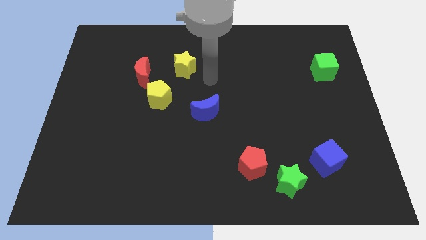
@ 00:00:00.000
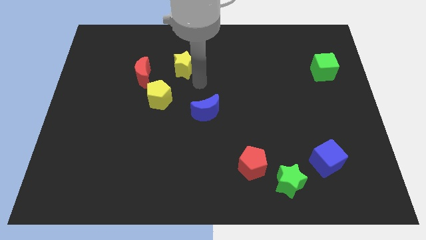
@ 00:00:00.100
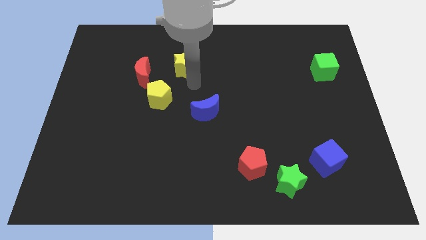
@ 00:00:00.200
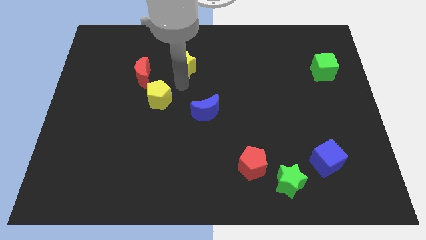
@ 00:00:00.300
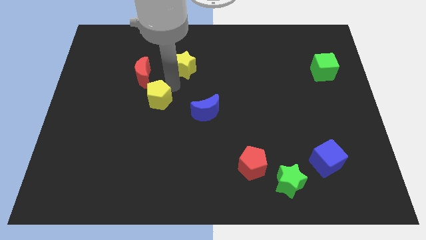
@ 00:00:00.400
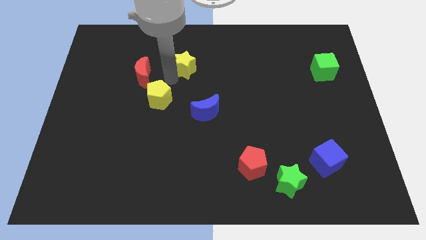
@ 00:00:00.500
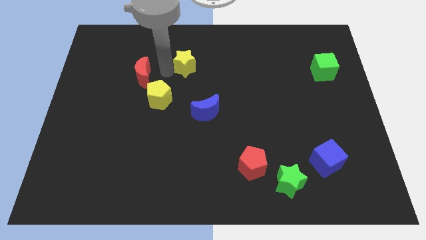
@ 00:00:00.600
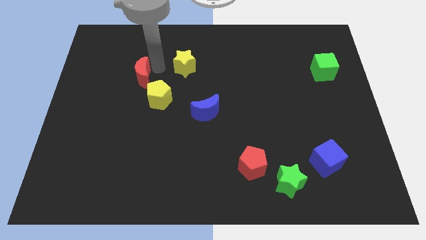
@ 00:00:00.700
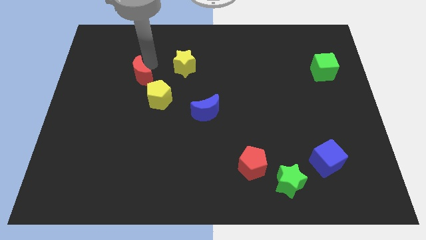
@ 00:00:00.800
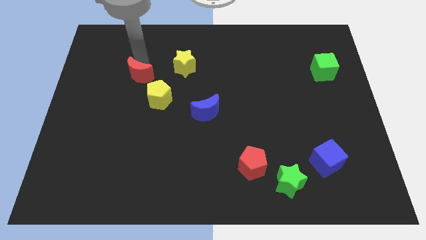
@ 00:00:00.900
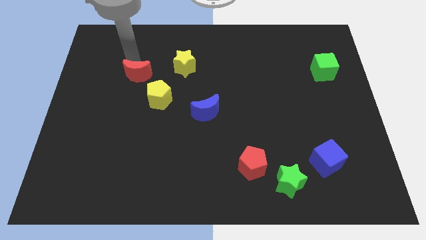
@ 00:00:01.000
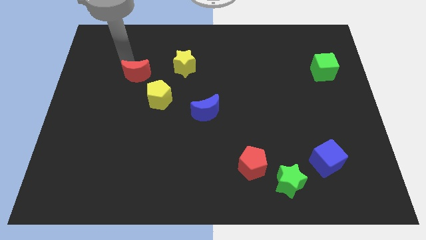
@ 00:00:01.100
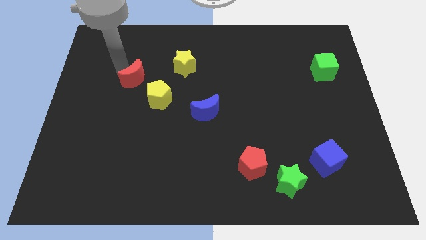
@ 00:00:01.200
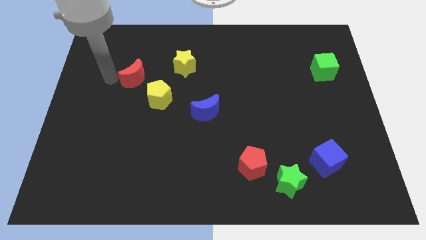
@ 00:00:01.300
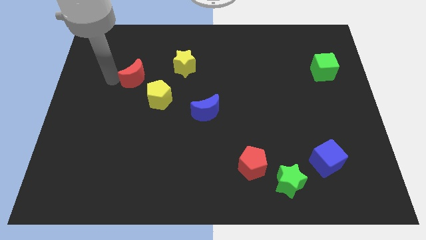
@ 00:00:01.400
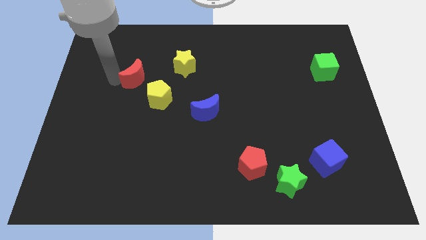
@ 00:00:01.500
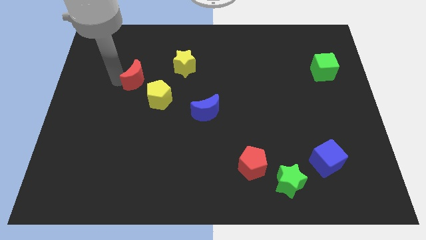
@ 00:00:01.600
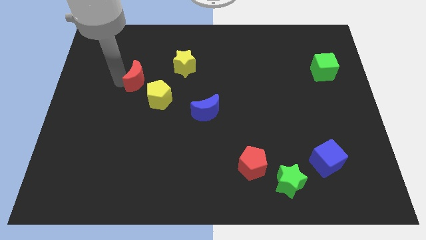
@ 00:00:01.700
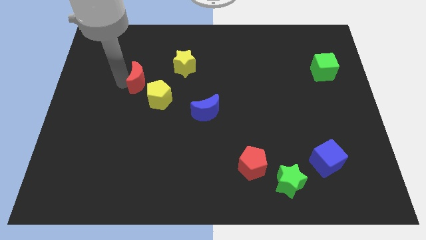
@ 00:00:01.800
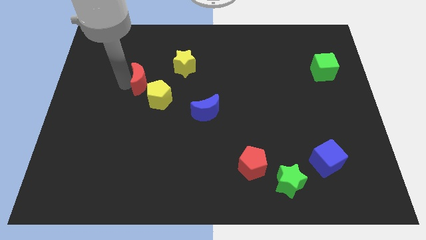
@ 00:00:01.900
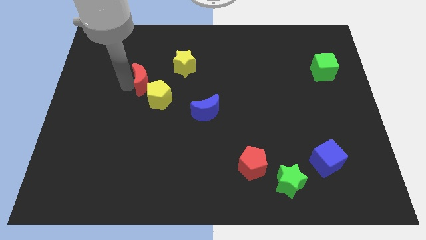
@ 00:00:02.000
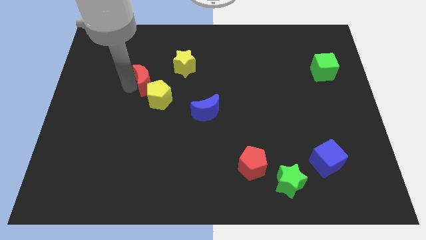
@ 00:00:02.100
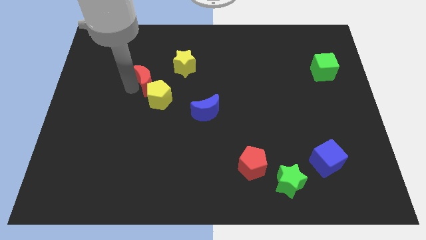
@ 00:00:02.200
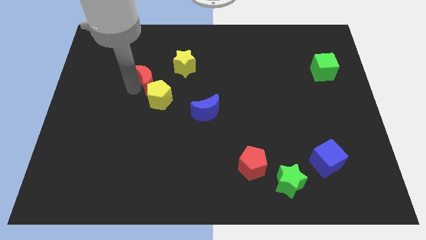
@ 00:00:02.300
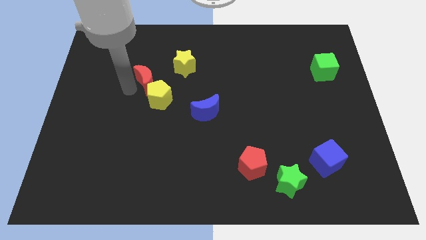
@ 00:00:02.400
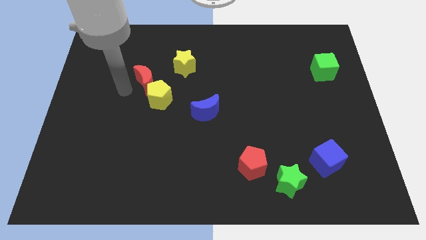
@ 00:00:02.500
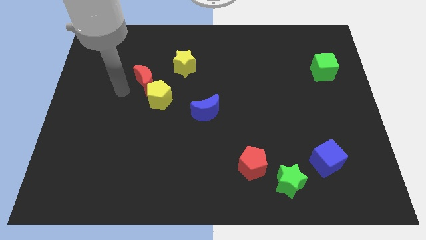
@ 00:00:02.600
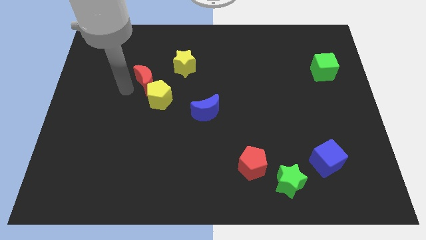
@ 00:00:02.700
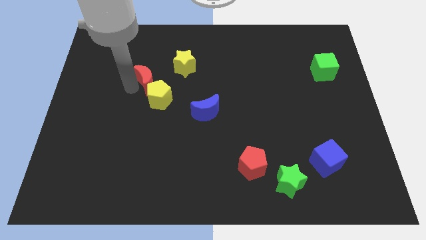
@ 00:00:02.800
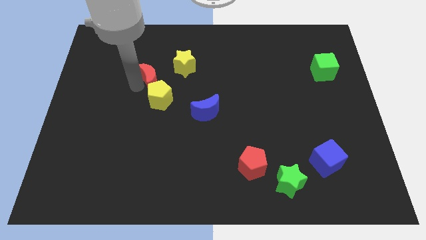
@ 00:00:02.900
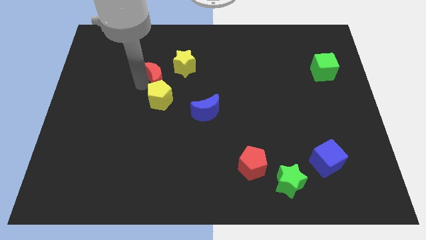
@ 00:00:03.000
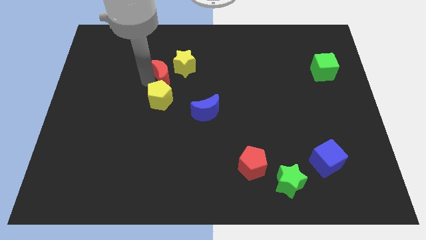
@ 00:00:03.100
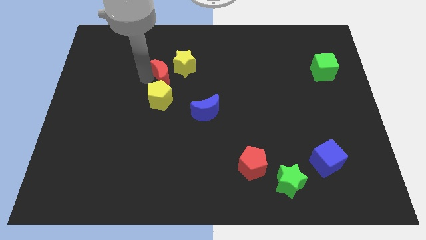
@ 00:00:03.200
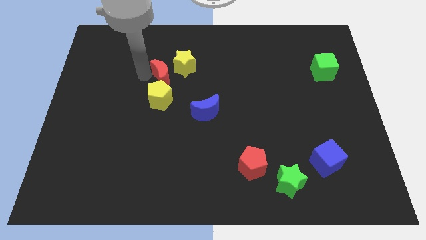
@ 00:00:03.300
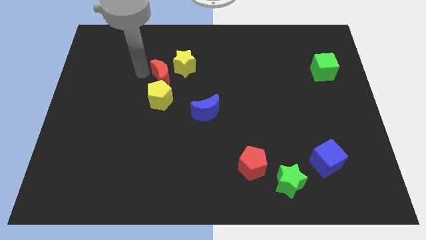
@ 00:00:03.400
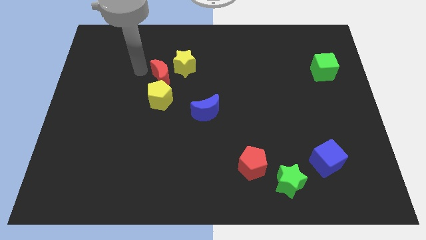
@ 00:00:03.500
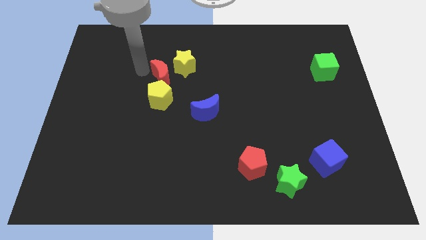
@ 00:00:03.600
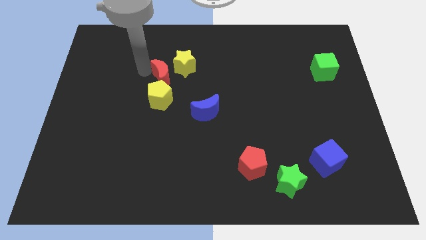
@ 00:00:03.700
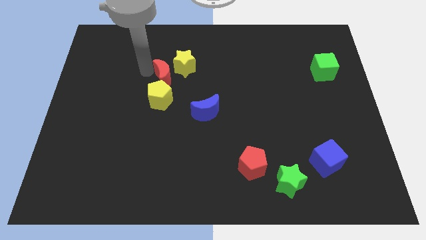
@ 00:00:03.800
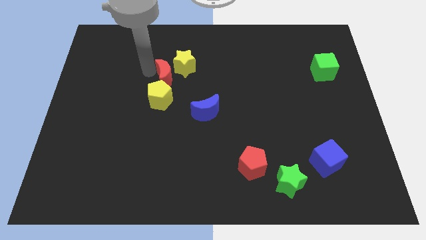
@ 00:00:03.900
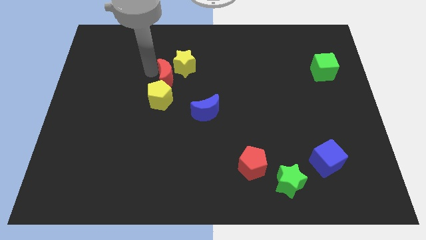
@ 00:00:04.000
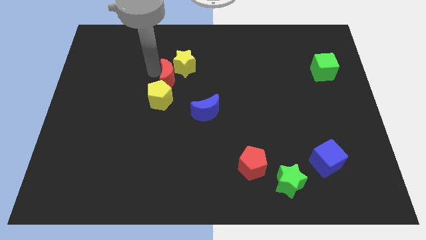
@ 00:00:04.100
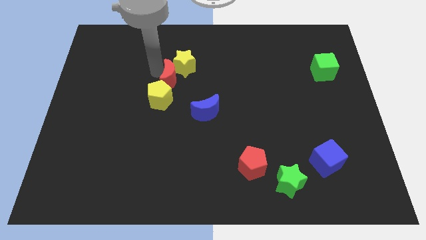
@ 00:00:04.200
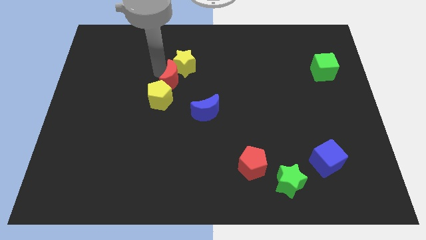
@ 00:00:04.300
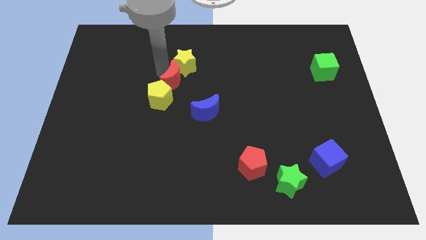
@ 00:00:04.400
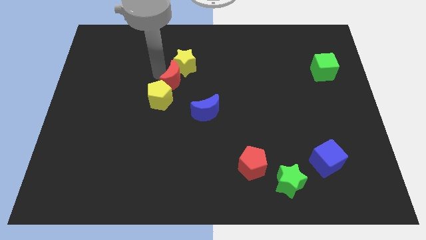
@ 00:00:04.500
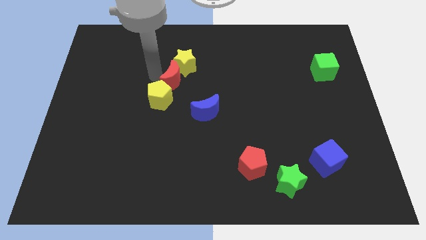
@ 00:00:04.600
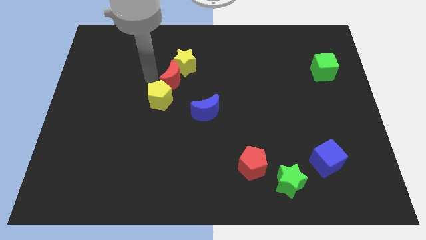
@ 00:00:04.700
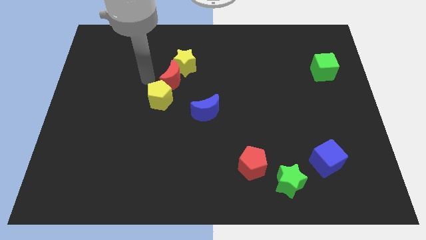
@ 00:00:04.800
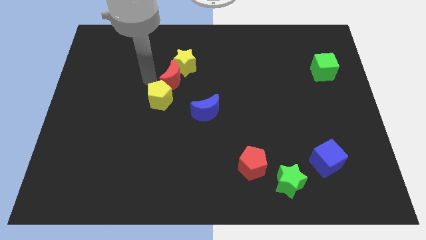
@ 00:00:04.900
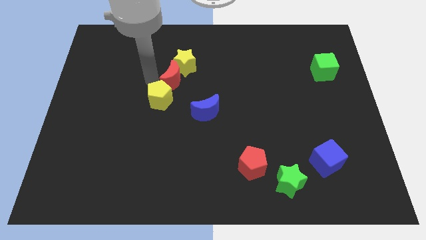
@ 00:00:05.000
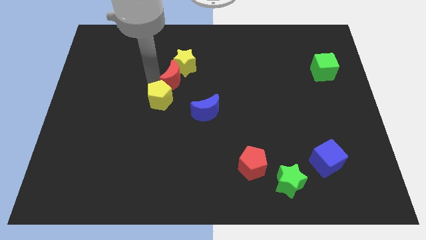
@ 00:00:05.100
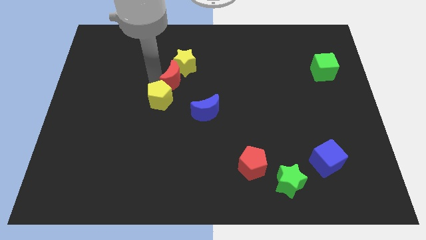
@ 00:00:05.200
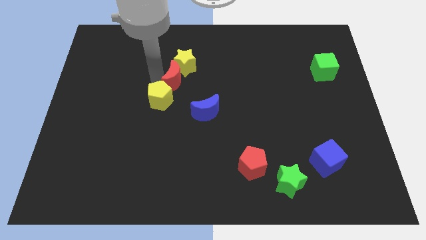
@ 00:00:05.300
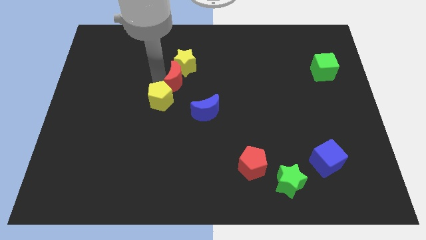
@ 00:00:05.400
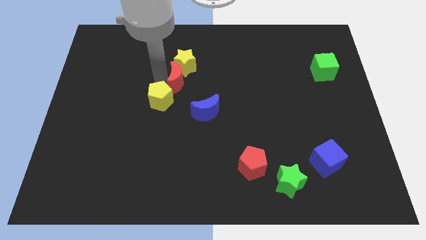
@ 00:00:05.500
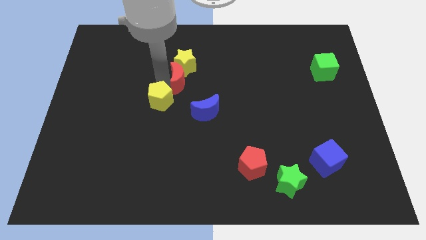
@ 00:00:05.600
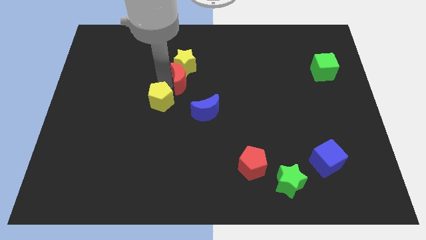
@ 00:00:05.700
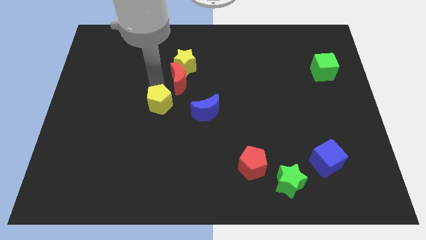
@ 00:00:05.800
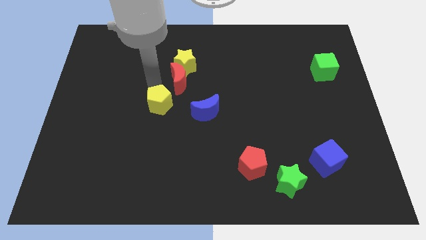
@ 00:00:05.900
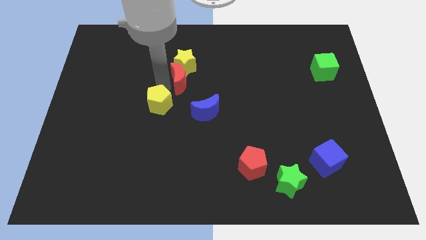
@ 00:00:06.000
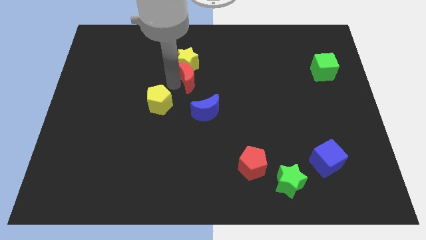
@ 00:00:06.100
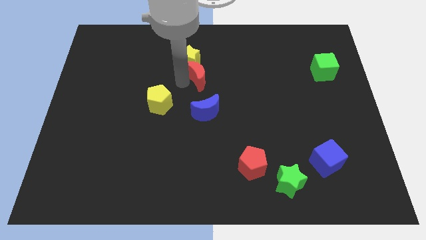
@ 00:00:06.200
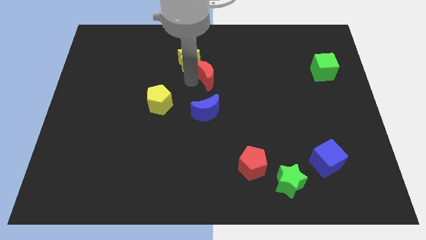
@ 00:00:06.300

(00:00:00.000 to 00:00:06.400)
put the red moon to the right of the yellow star

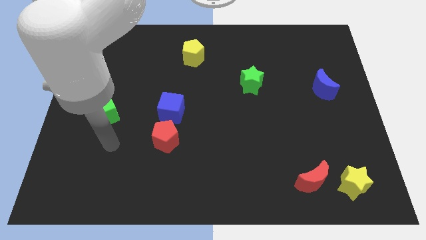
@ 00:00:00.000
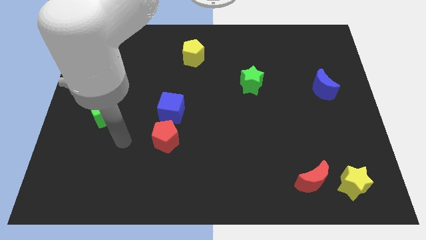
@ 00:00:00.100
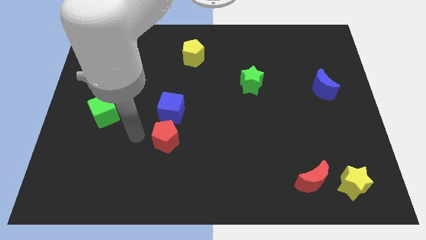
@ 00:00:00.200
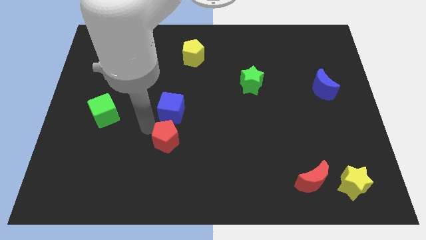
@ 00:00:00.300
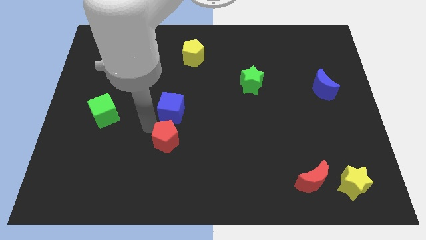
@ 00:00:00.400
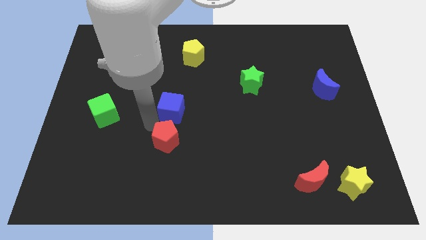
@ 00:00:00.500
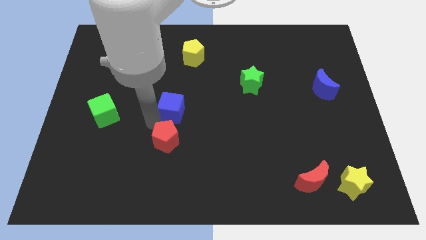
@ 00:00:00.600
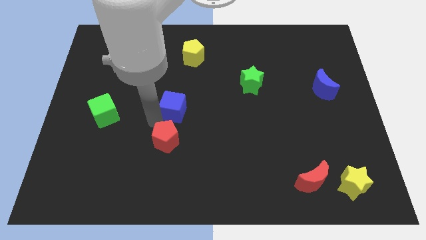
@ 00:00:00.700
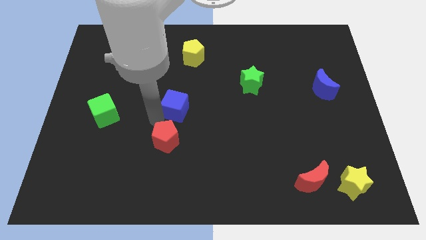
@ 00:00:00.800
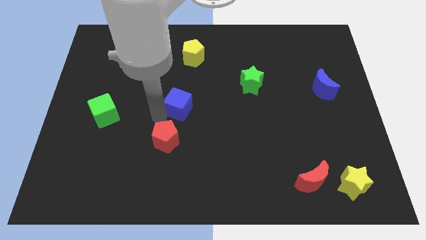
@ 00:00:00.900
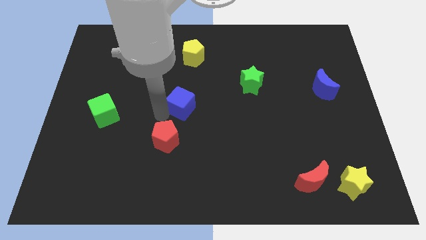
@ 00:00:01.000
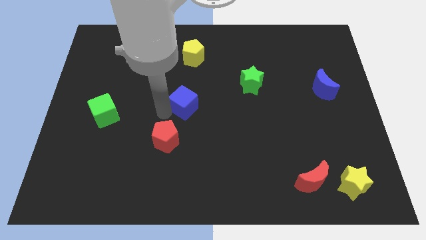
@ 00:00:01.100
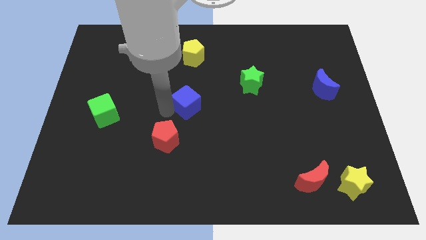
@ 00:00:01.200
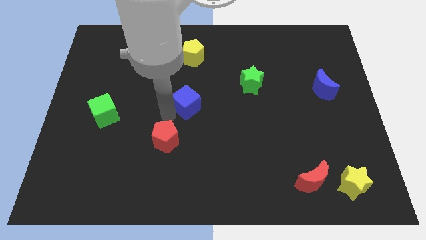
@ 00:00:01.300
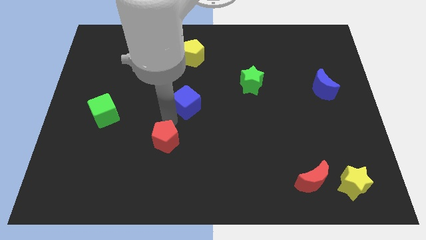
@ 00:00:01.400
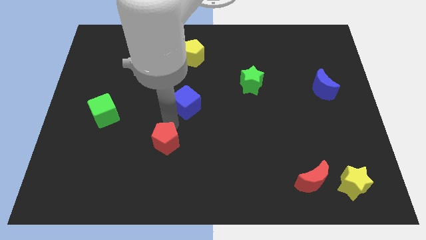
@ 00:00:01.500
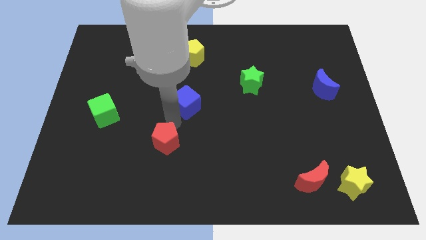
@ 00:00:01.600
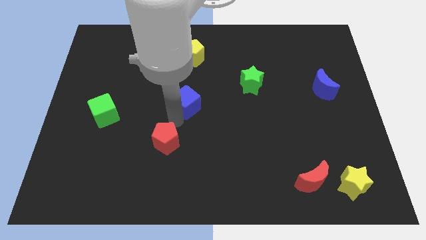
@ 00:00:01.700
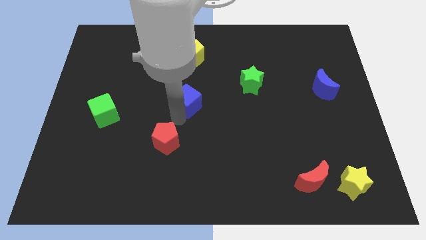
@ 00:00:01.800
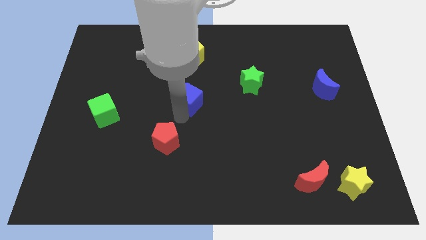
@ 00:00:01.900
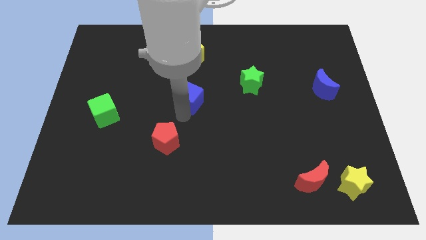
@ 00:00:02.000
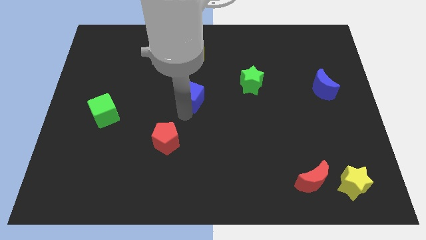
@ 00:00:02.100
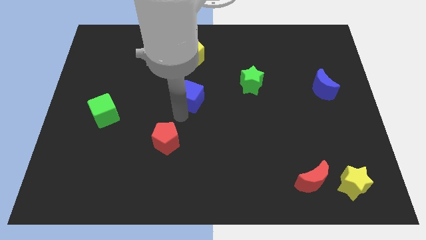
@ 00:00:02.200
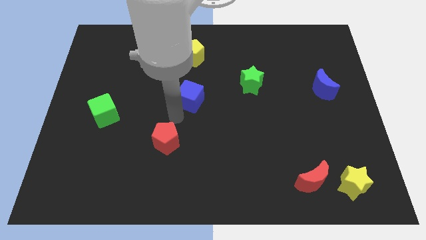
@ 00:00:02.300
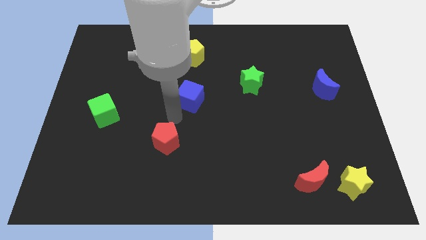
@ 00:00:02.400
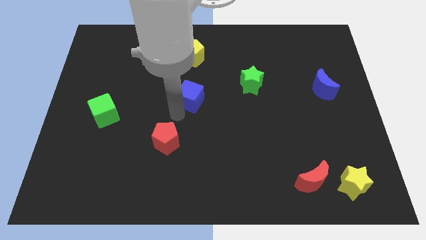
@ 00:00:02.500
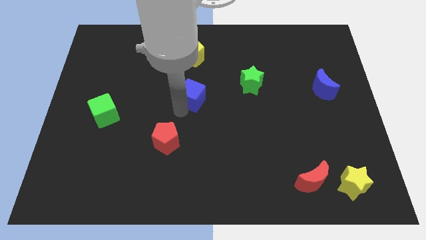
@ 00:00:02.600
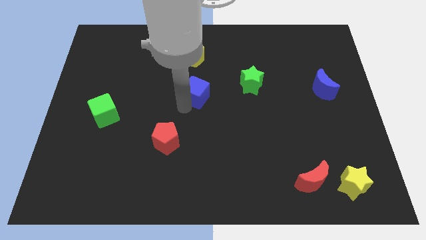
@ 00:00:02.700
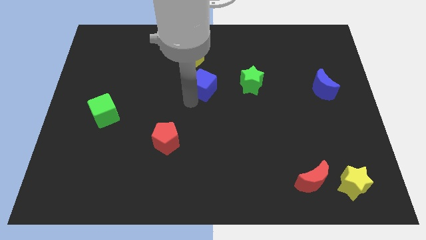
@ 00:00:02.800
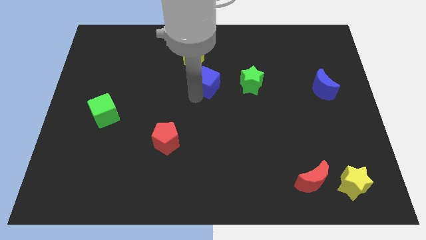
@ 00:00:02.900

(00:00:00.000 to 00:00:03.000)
move the blue cube diagonally down and to the right of the yellow pentagon
